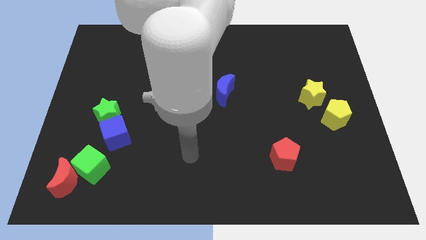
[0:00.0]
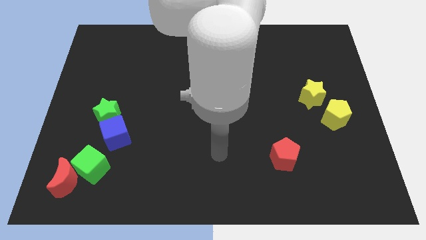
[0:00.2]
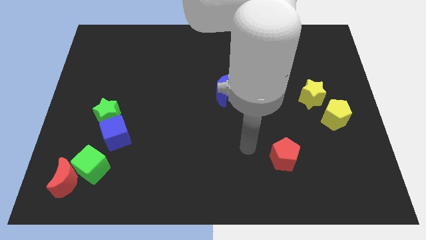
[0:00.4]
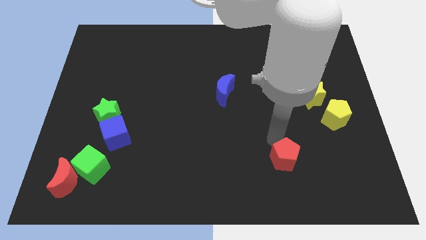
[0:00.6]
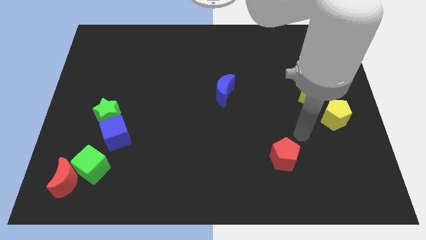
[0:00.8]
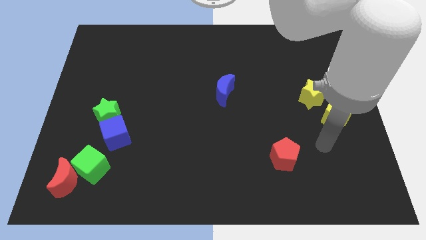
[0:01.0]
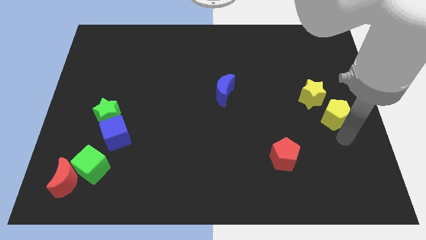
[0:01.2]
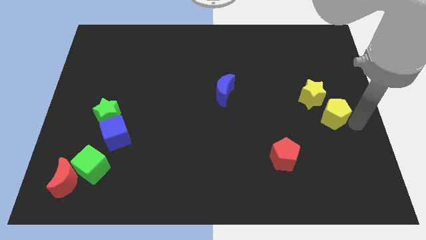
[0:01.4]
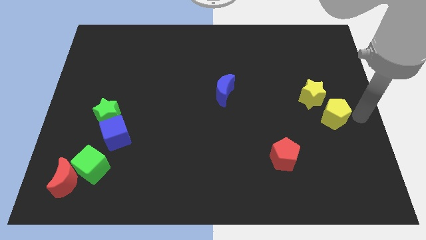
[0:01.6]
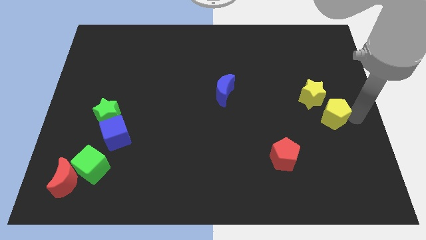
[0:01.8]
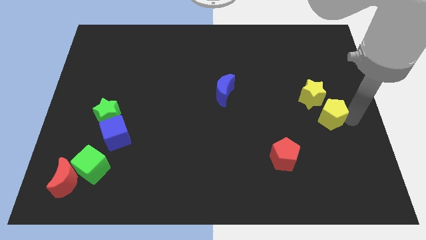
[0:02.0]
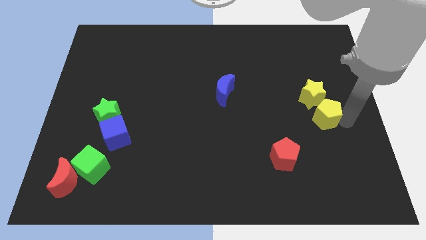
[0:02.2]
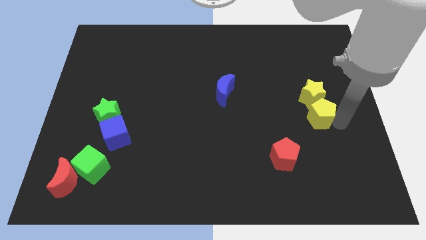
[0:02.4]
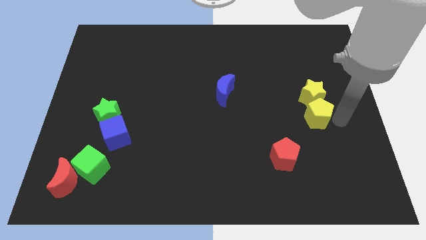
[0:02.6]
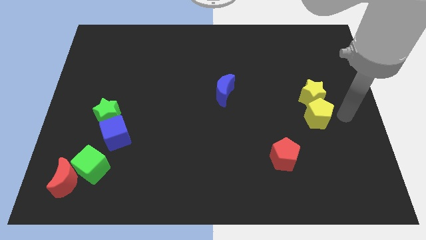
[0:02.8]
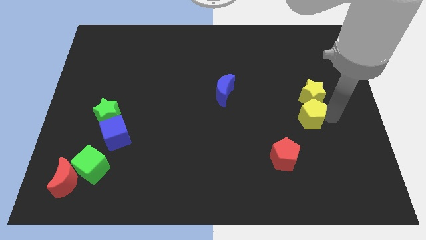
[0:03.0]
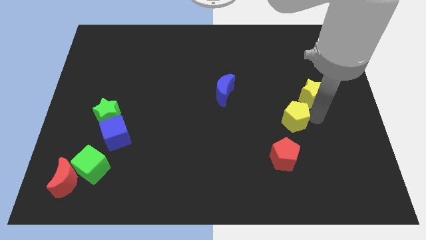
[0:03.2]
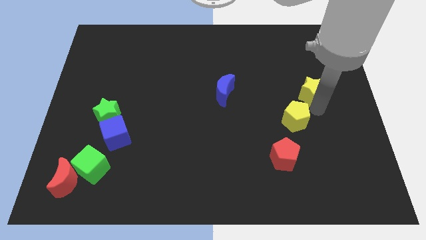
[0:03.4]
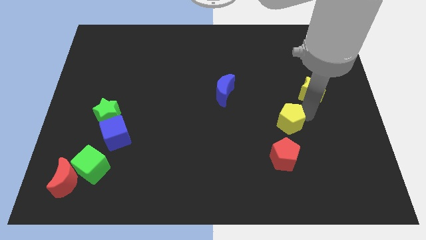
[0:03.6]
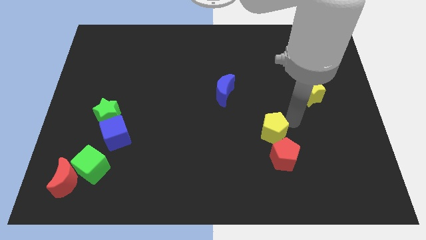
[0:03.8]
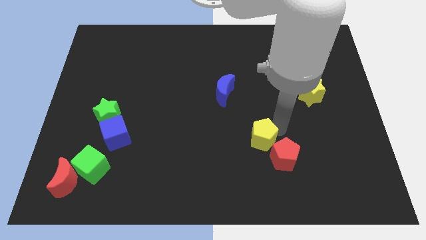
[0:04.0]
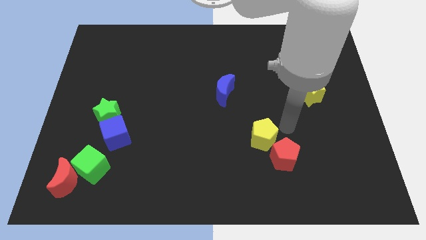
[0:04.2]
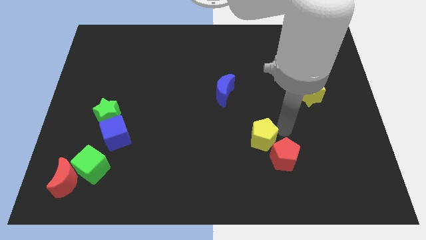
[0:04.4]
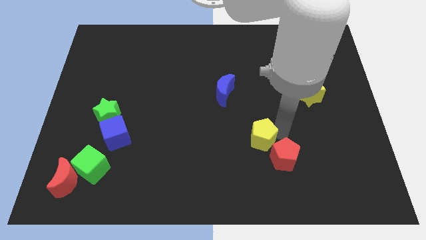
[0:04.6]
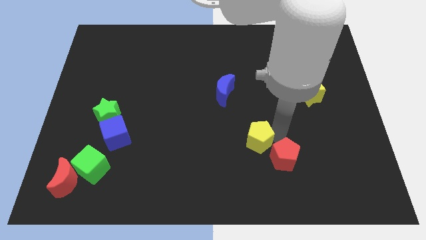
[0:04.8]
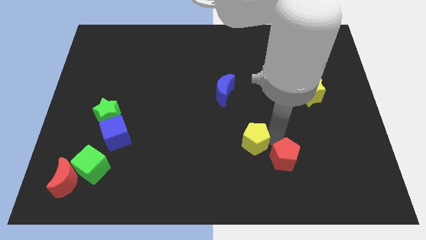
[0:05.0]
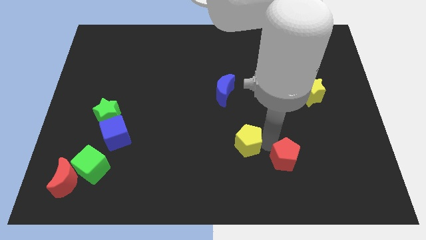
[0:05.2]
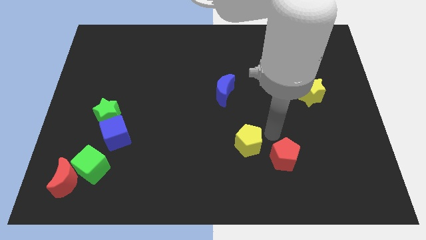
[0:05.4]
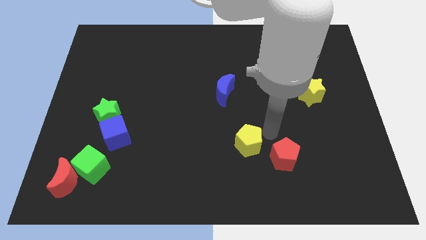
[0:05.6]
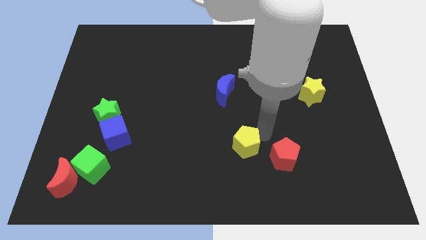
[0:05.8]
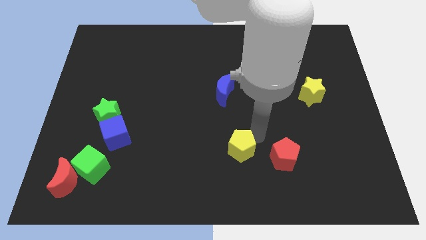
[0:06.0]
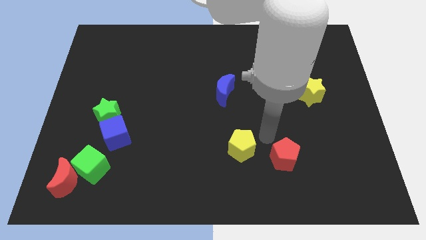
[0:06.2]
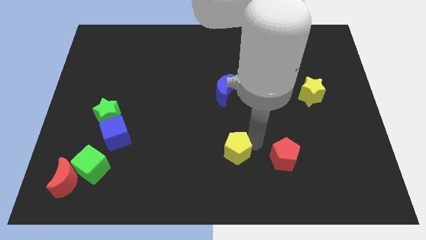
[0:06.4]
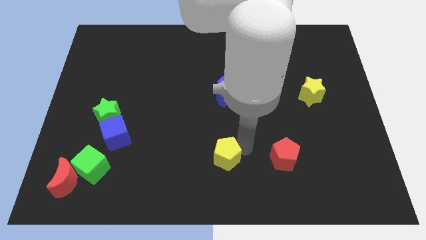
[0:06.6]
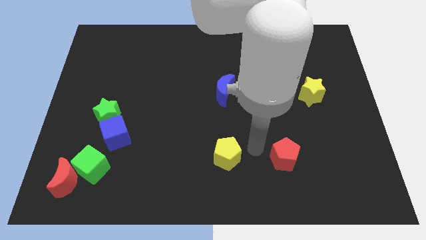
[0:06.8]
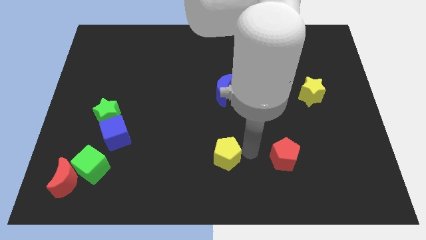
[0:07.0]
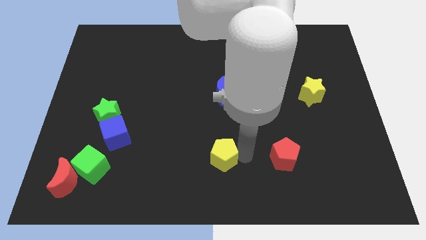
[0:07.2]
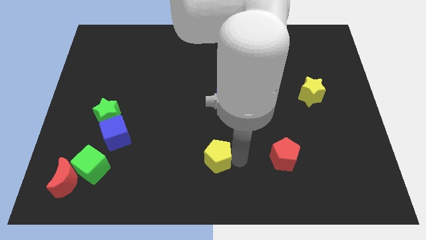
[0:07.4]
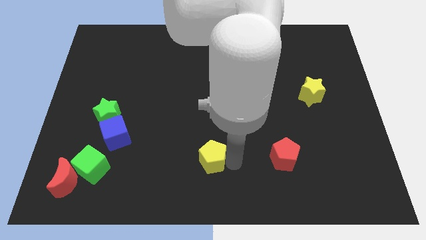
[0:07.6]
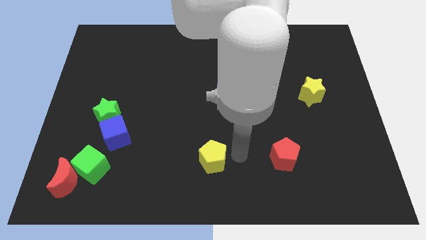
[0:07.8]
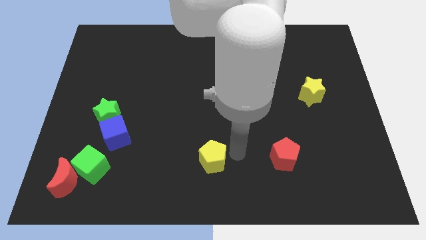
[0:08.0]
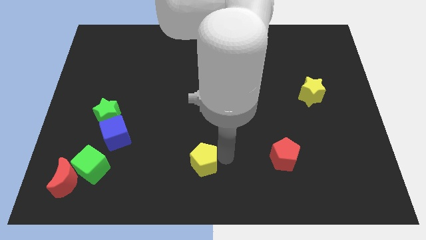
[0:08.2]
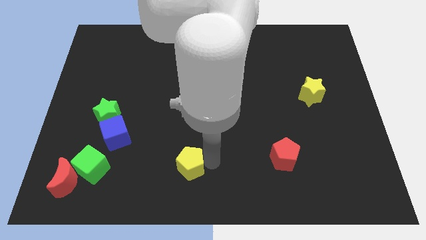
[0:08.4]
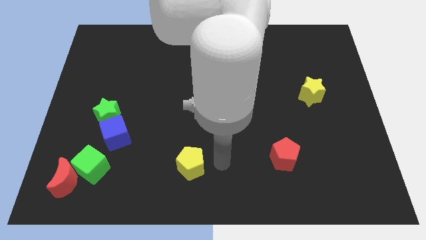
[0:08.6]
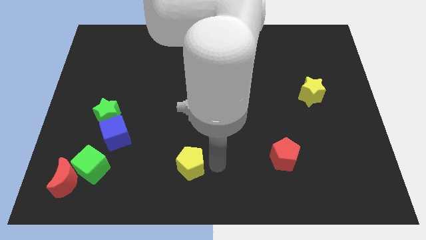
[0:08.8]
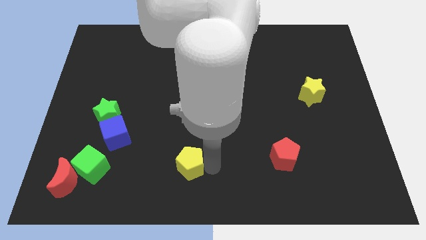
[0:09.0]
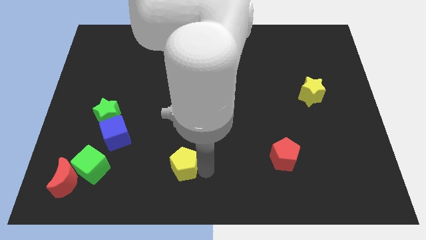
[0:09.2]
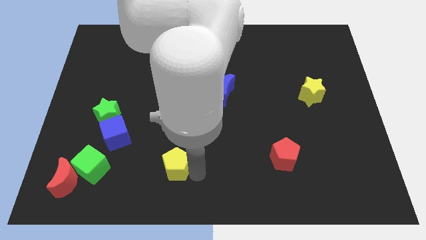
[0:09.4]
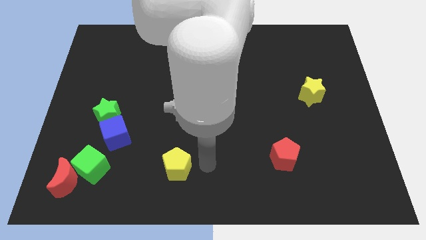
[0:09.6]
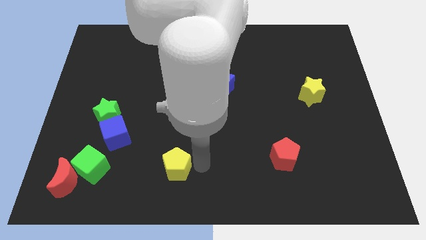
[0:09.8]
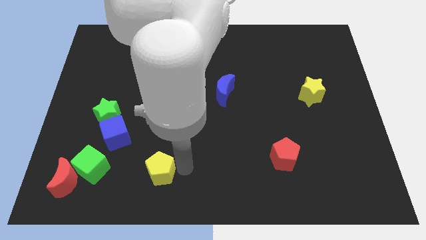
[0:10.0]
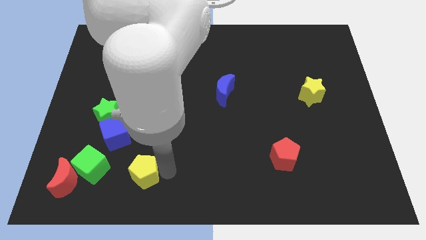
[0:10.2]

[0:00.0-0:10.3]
push the yellow pentagon to the right of the red moon

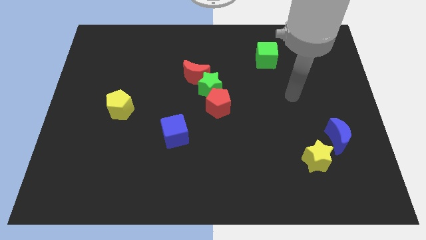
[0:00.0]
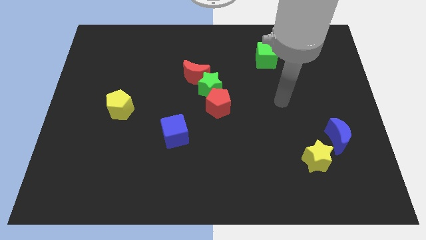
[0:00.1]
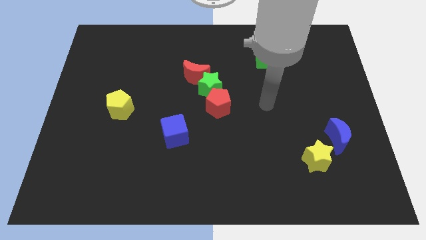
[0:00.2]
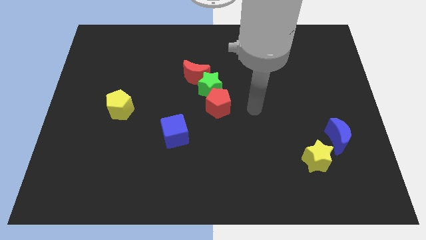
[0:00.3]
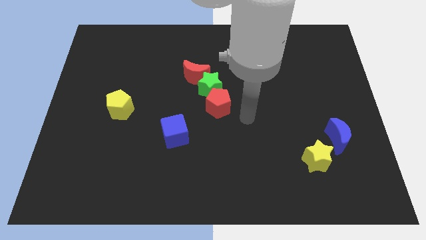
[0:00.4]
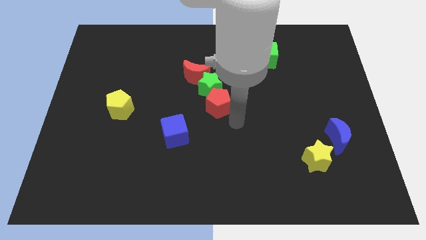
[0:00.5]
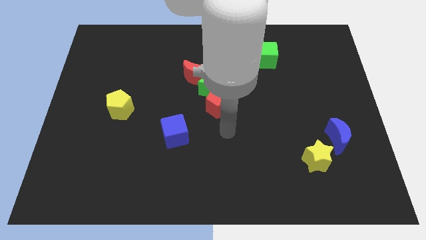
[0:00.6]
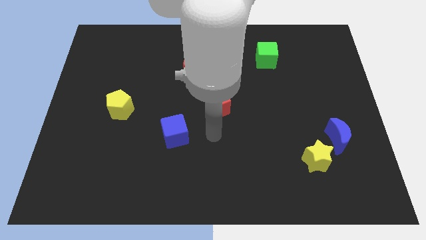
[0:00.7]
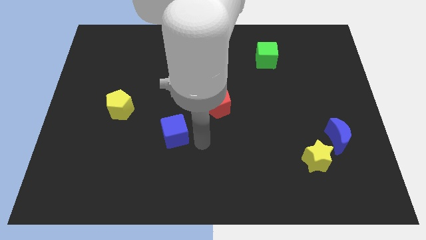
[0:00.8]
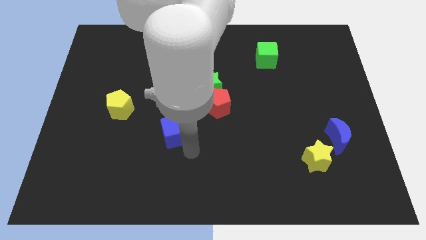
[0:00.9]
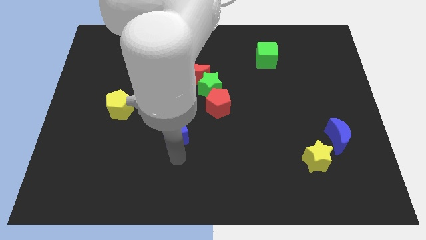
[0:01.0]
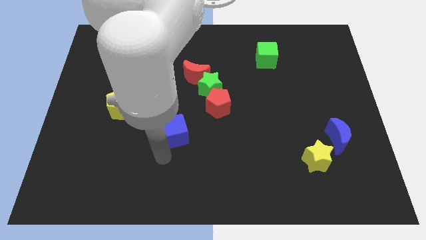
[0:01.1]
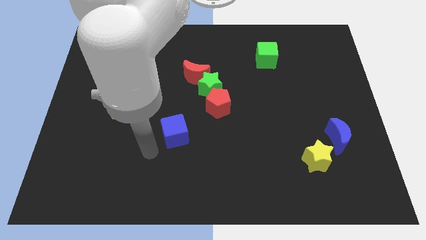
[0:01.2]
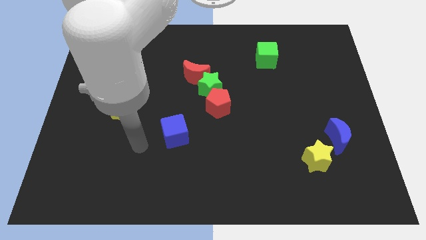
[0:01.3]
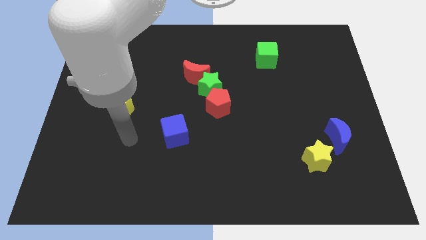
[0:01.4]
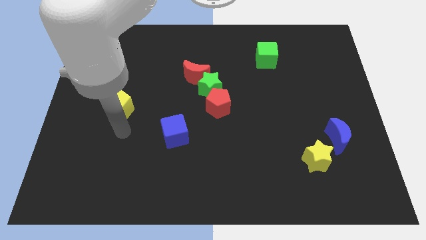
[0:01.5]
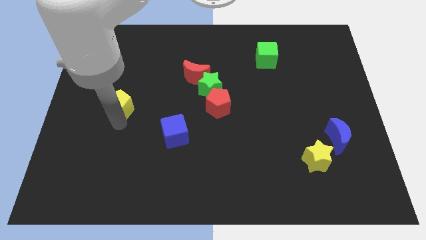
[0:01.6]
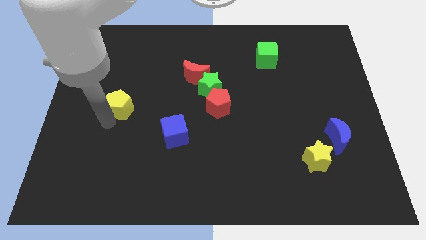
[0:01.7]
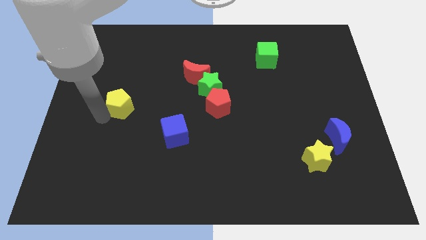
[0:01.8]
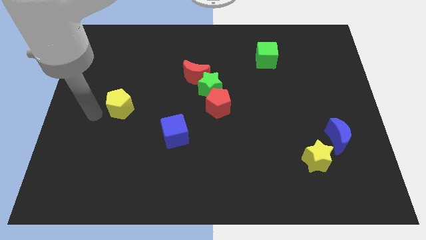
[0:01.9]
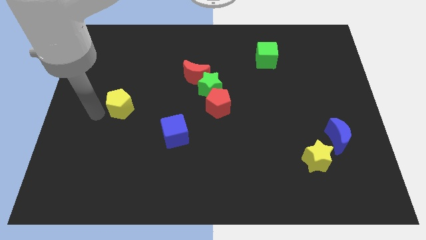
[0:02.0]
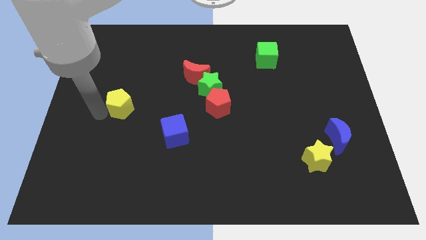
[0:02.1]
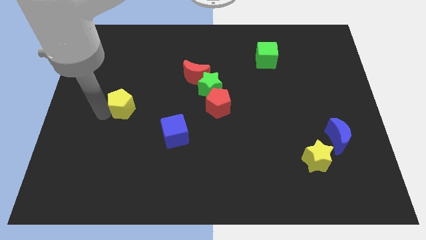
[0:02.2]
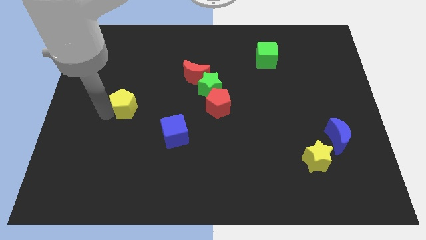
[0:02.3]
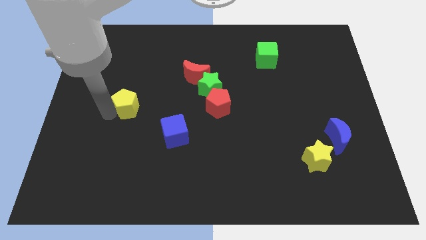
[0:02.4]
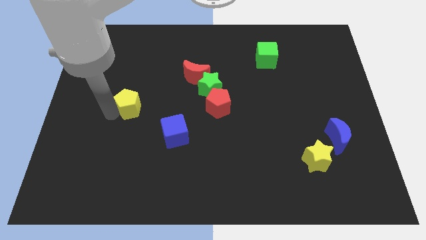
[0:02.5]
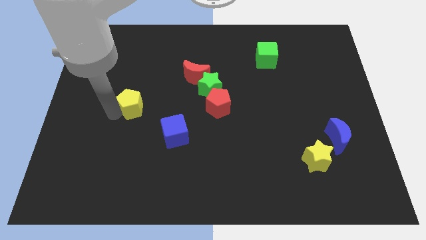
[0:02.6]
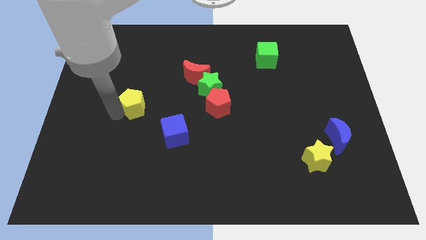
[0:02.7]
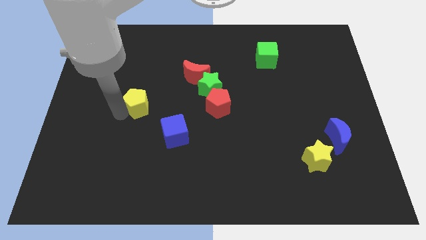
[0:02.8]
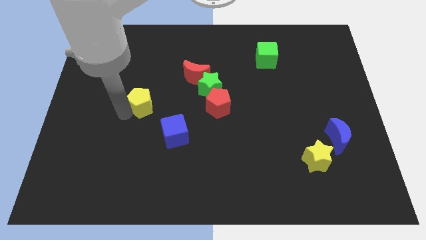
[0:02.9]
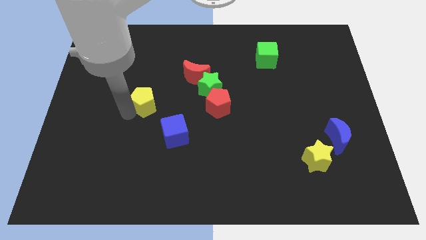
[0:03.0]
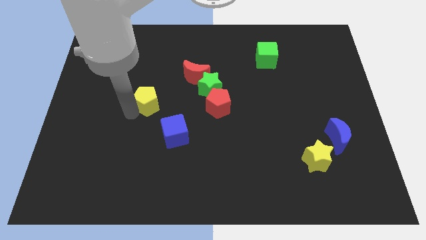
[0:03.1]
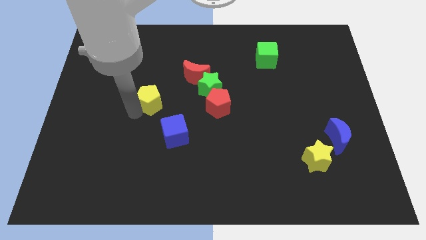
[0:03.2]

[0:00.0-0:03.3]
push the yellow pentagon to the left side of the green star
